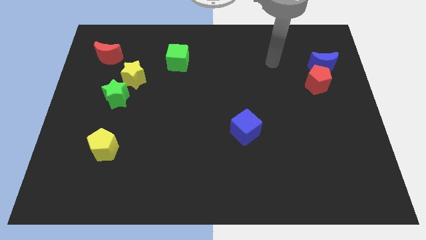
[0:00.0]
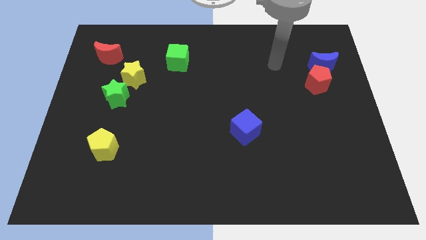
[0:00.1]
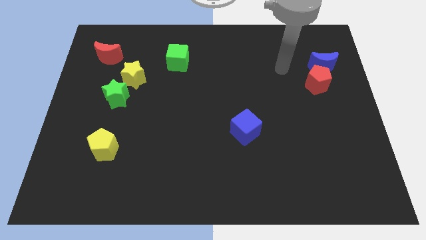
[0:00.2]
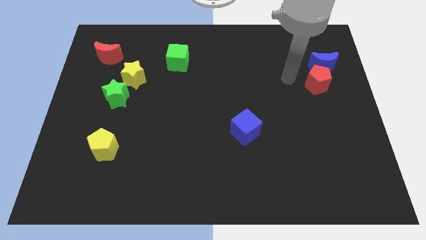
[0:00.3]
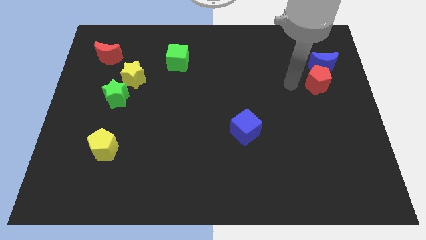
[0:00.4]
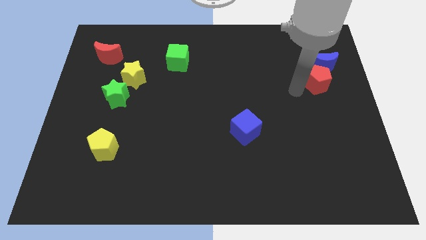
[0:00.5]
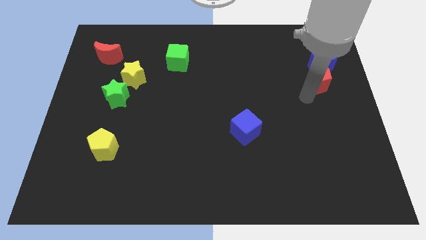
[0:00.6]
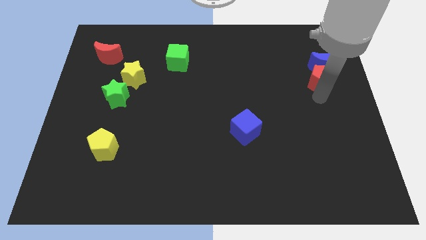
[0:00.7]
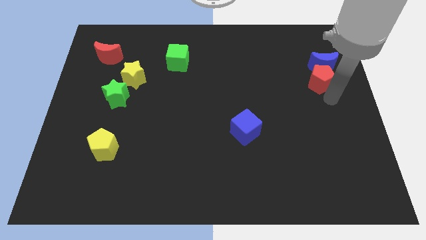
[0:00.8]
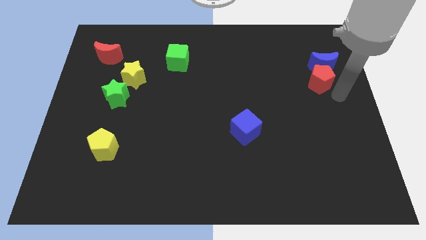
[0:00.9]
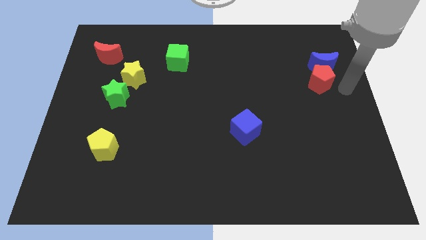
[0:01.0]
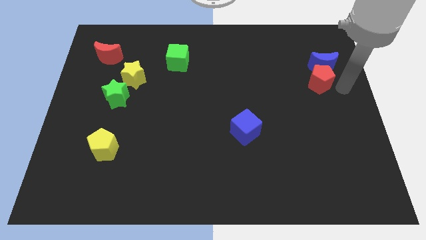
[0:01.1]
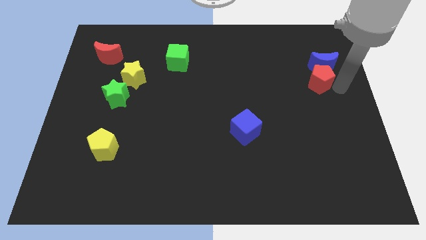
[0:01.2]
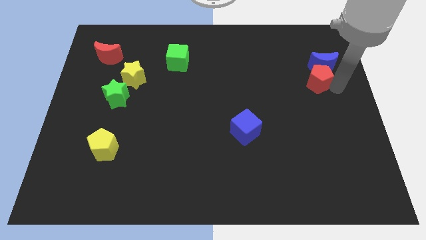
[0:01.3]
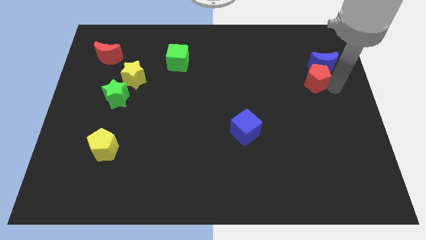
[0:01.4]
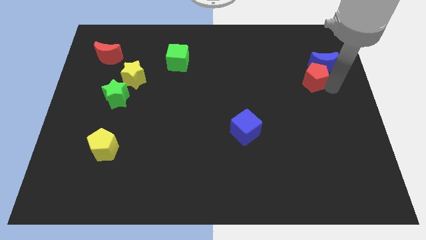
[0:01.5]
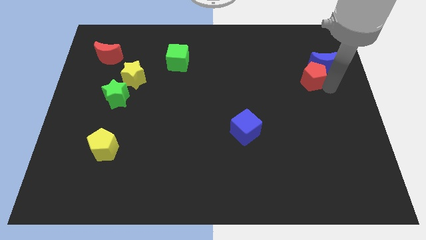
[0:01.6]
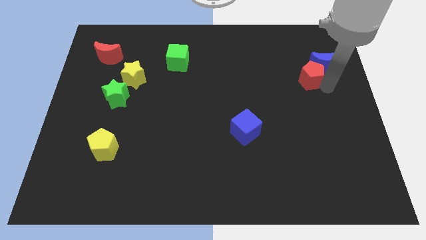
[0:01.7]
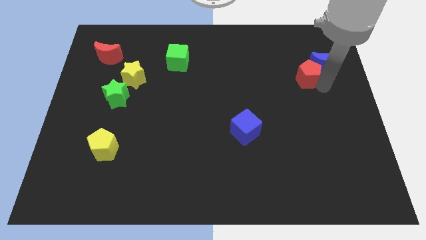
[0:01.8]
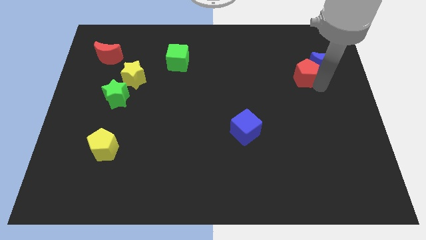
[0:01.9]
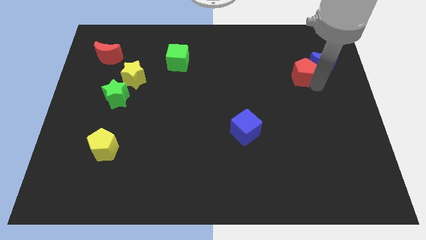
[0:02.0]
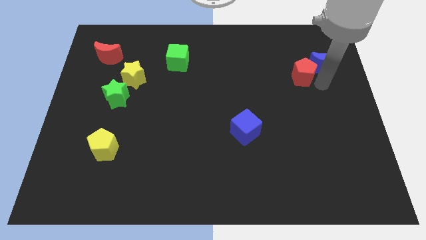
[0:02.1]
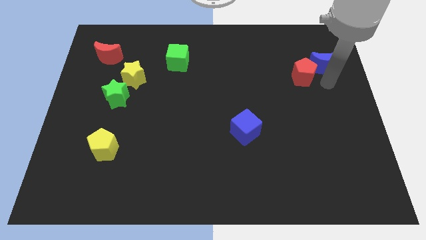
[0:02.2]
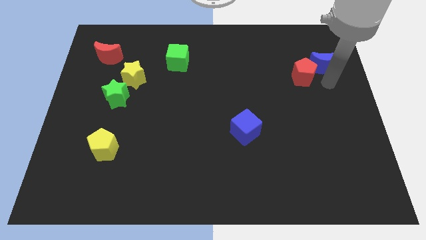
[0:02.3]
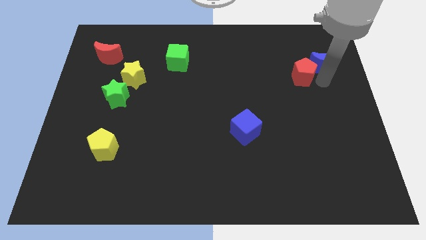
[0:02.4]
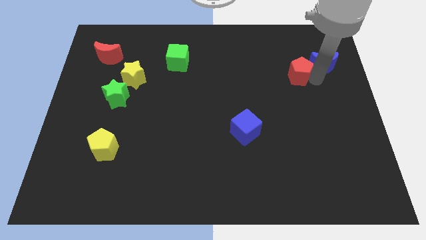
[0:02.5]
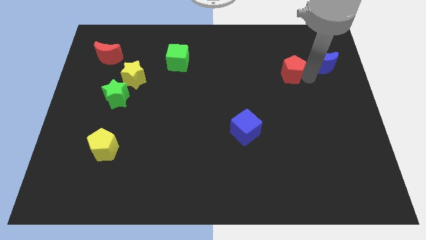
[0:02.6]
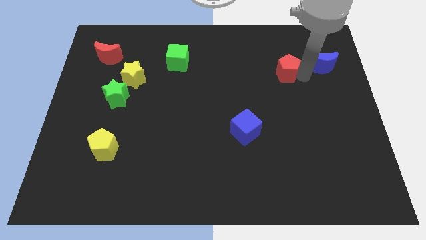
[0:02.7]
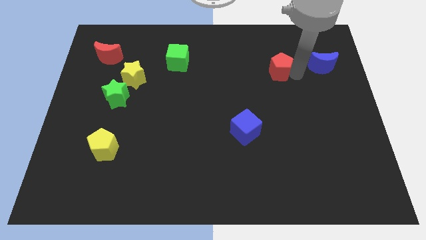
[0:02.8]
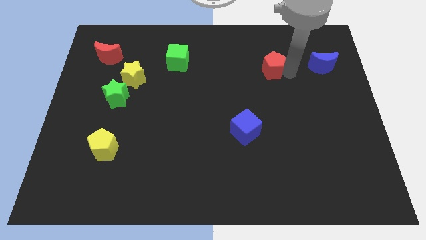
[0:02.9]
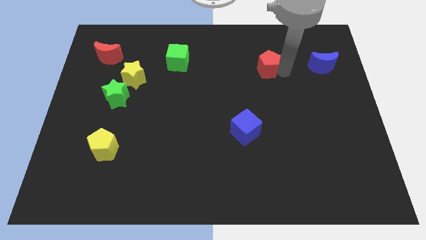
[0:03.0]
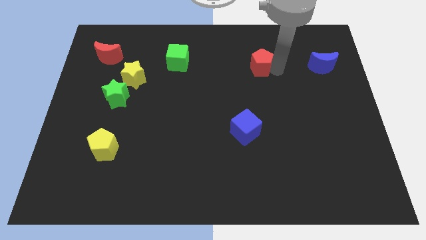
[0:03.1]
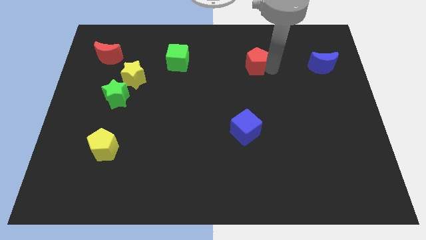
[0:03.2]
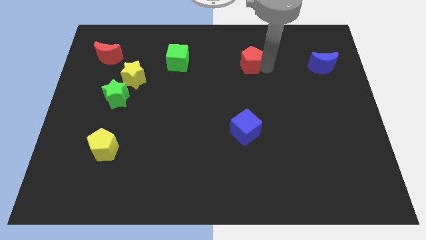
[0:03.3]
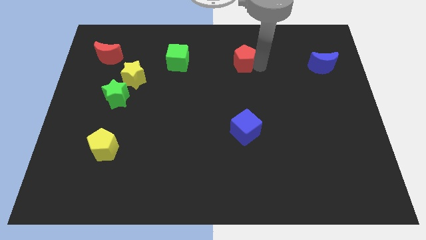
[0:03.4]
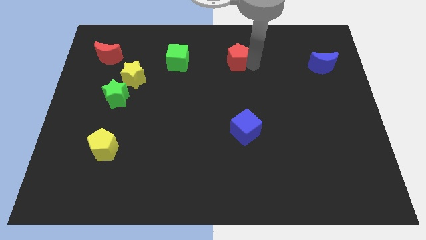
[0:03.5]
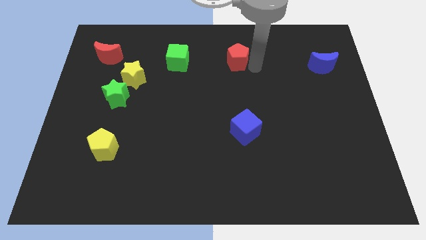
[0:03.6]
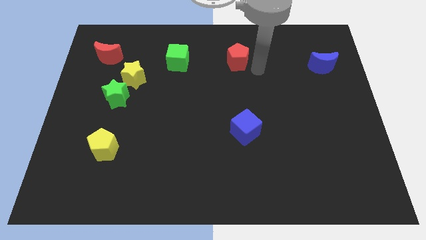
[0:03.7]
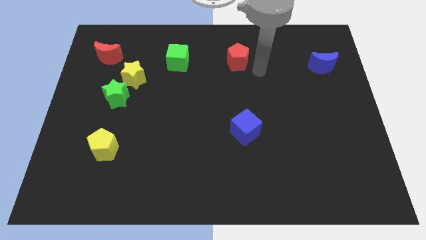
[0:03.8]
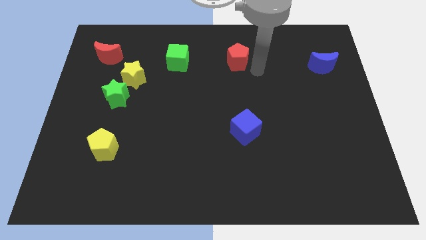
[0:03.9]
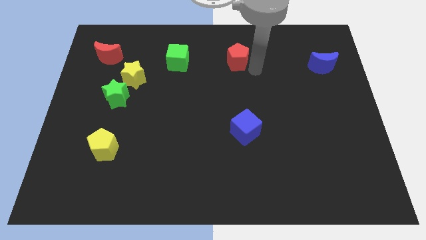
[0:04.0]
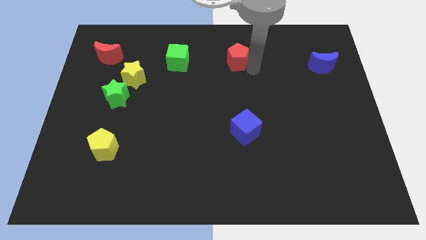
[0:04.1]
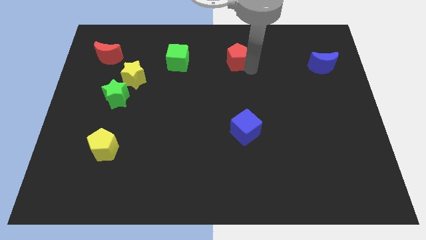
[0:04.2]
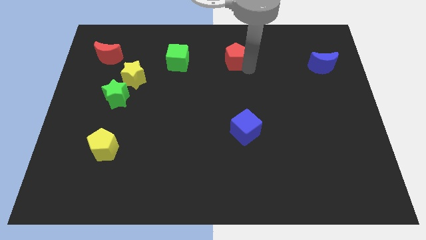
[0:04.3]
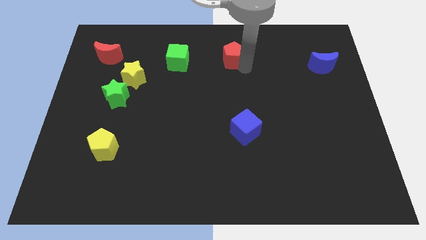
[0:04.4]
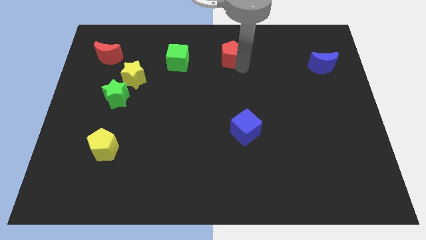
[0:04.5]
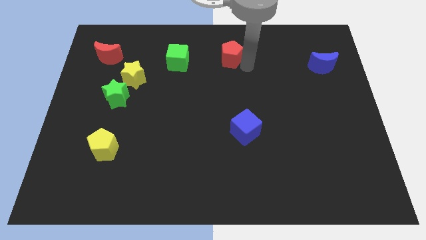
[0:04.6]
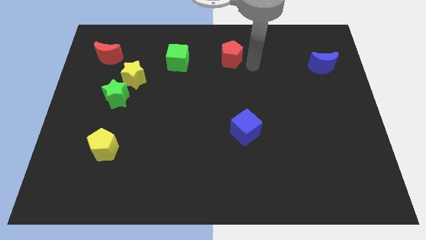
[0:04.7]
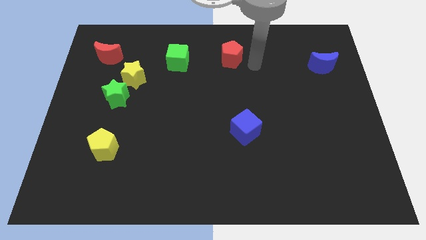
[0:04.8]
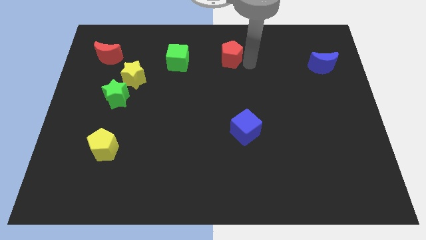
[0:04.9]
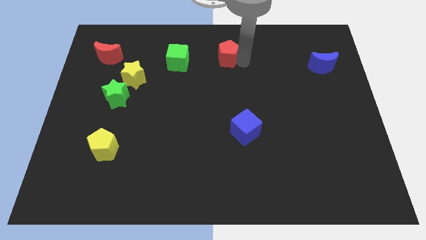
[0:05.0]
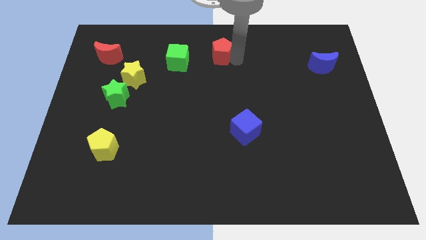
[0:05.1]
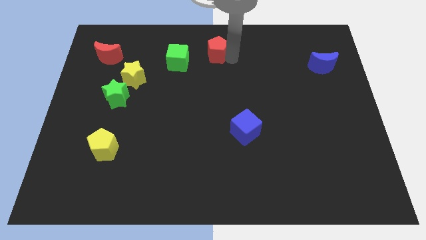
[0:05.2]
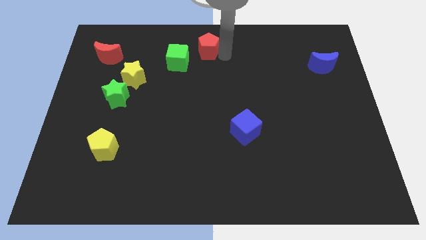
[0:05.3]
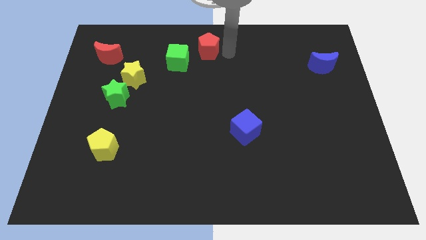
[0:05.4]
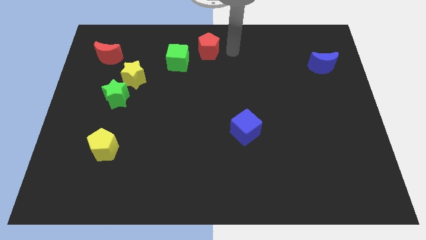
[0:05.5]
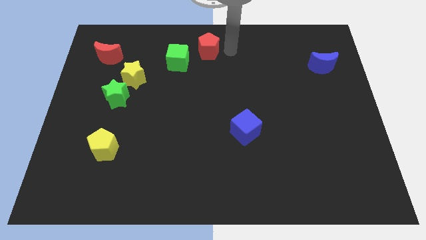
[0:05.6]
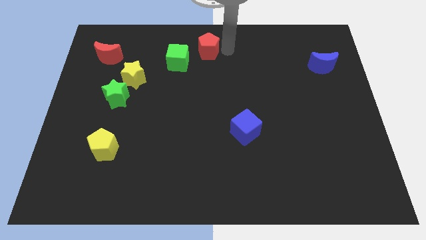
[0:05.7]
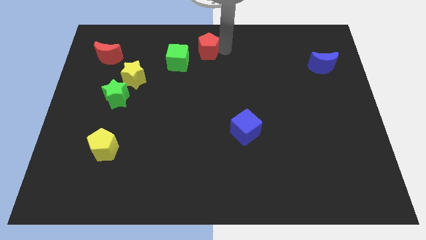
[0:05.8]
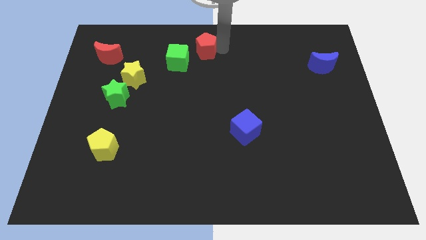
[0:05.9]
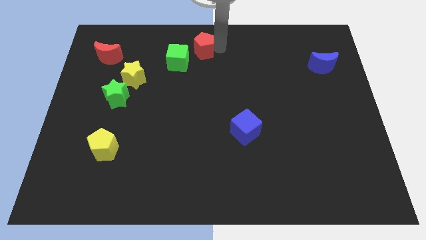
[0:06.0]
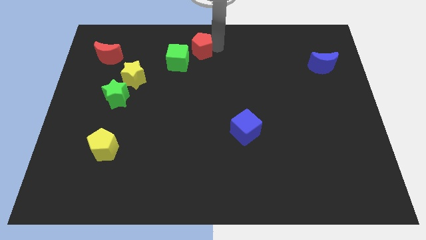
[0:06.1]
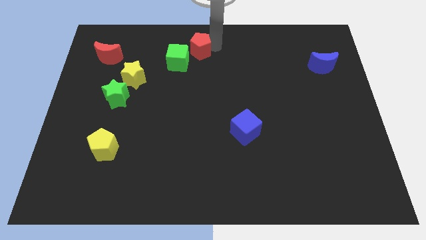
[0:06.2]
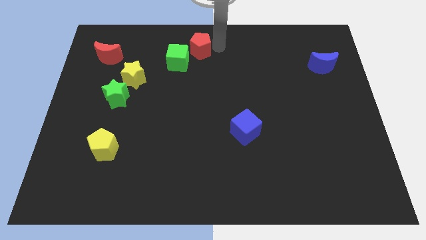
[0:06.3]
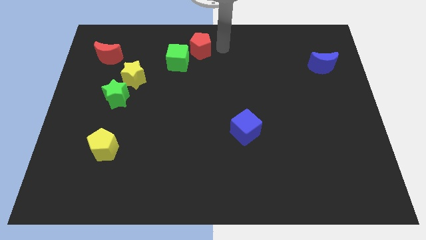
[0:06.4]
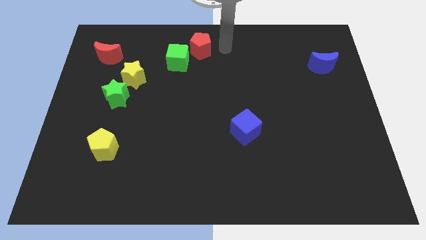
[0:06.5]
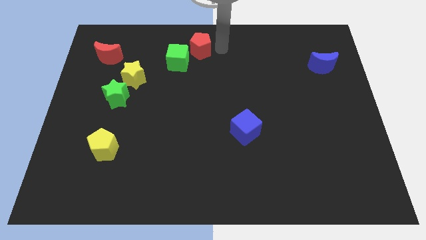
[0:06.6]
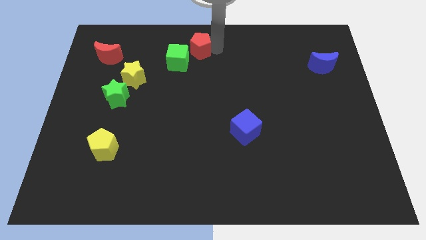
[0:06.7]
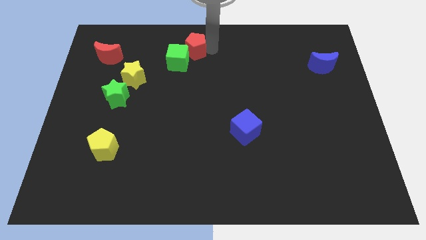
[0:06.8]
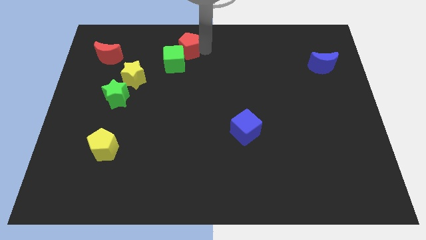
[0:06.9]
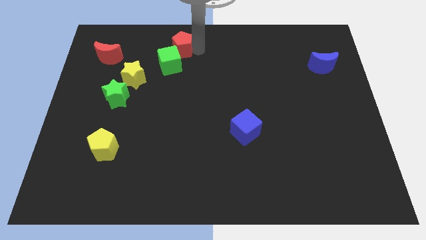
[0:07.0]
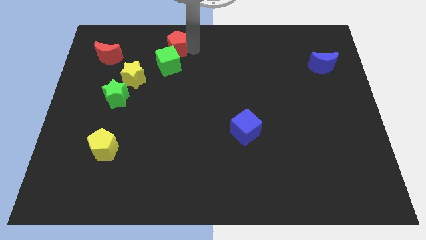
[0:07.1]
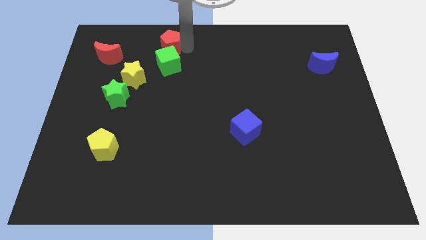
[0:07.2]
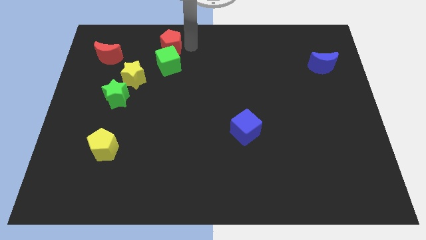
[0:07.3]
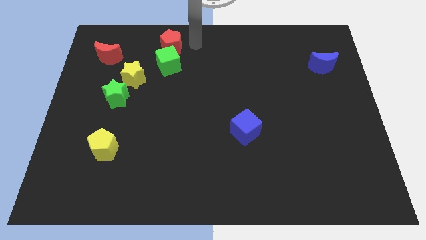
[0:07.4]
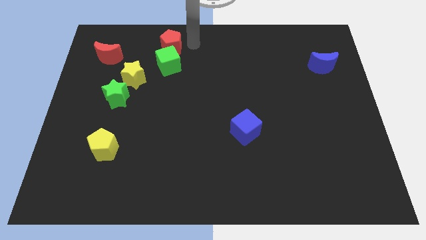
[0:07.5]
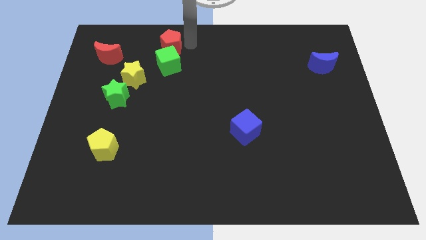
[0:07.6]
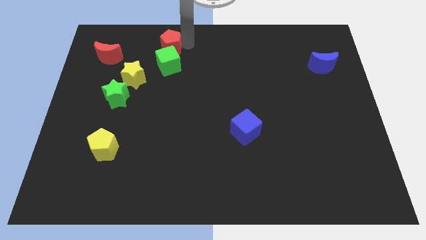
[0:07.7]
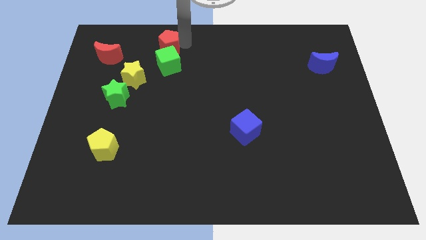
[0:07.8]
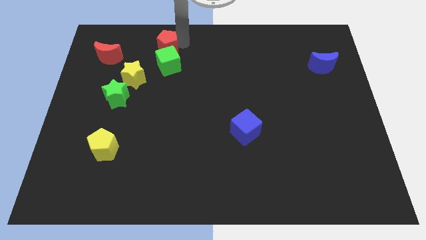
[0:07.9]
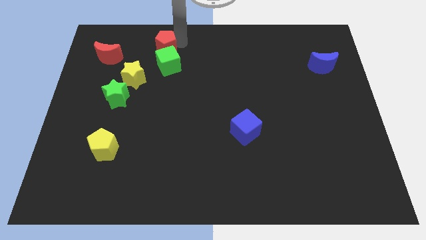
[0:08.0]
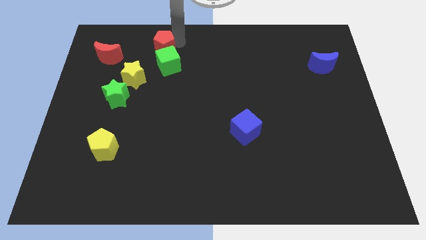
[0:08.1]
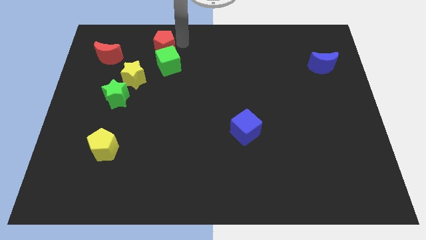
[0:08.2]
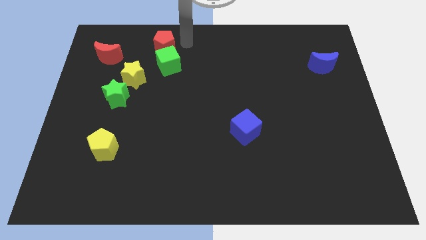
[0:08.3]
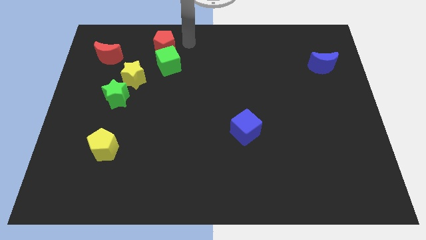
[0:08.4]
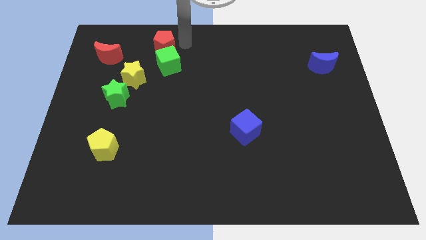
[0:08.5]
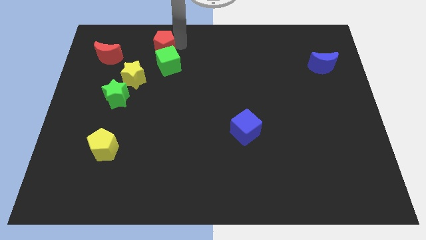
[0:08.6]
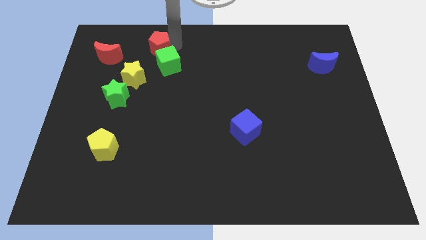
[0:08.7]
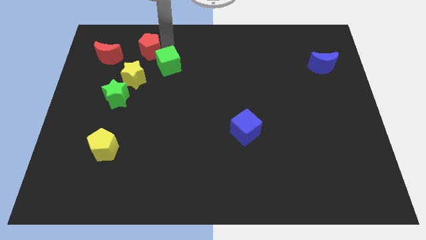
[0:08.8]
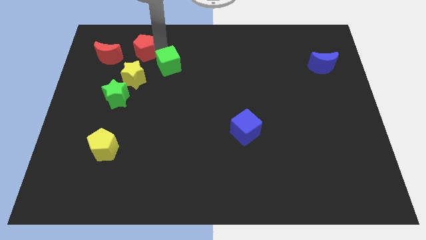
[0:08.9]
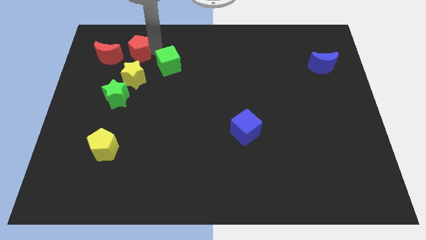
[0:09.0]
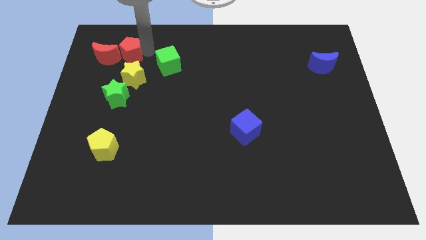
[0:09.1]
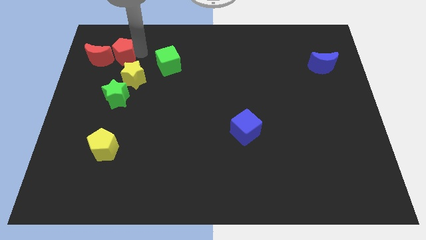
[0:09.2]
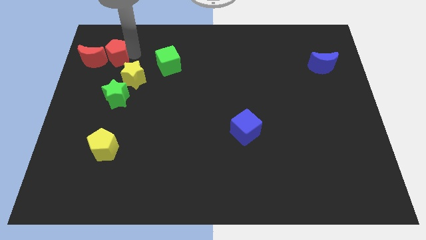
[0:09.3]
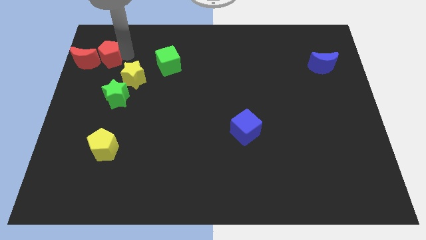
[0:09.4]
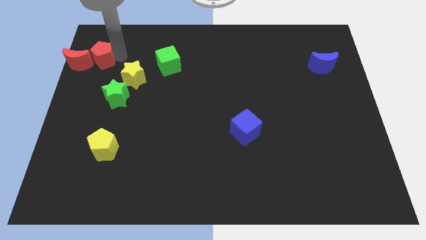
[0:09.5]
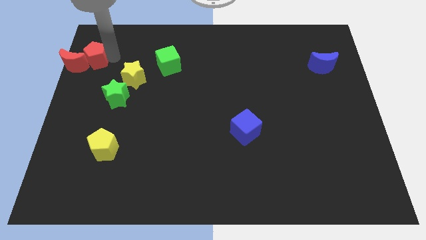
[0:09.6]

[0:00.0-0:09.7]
put the red pentagon towards the red moon
